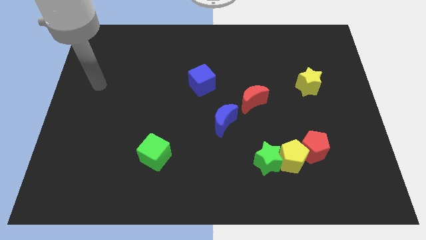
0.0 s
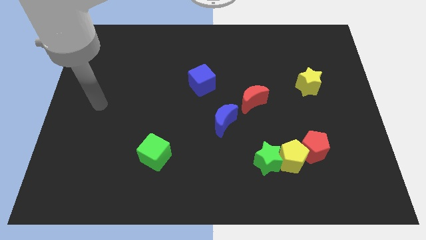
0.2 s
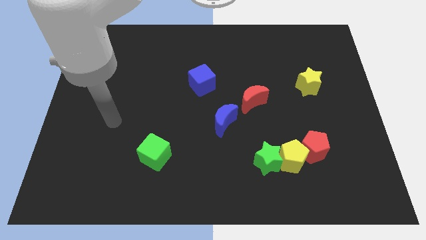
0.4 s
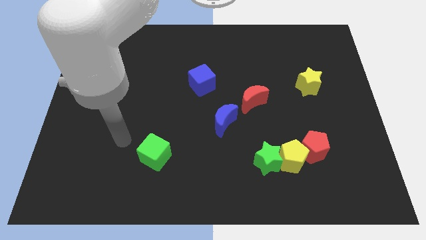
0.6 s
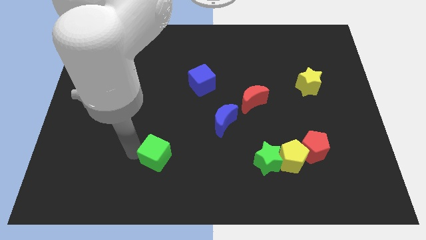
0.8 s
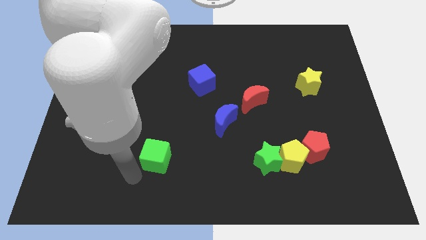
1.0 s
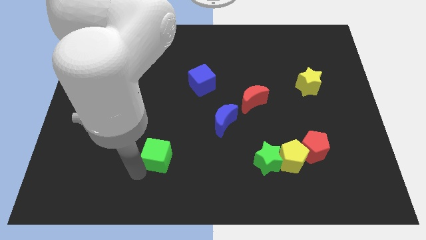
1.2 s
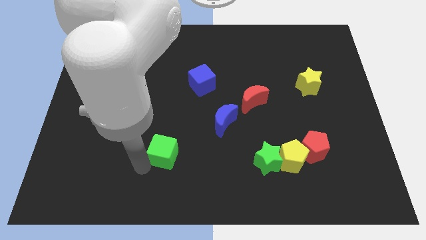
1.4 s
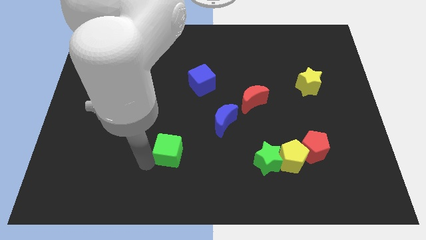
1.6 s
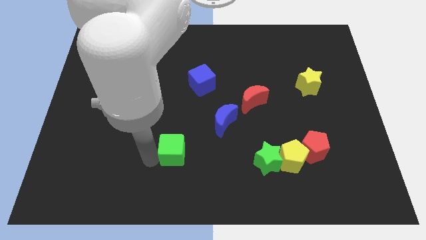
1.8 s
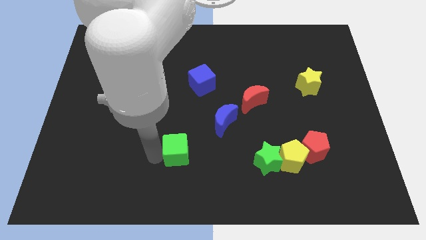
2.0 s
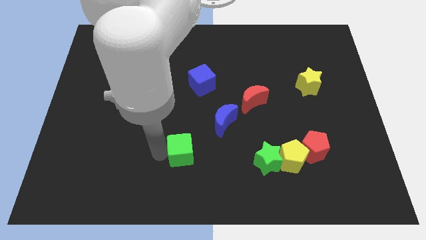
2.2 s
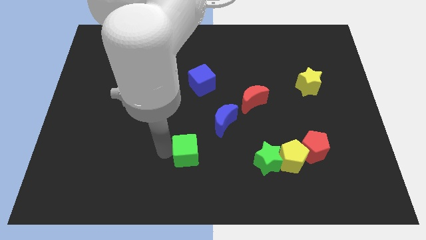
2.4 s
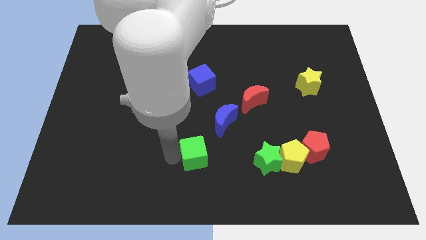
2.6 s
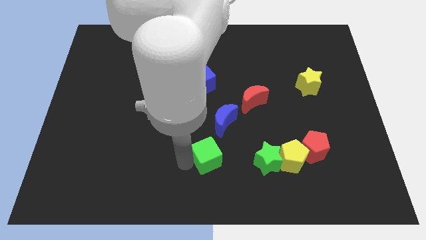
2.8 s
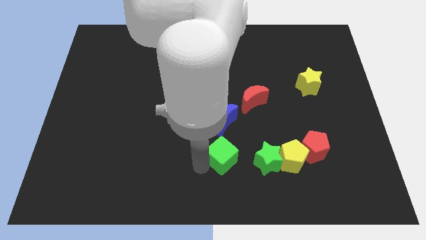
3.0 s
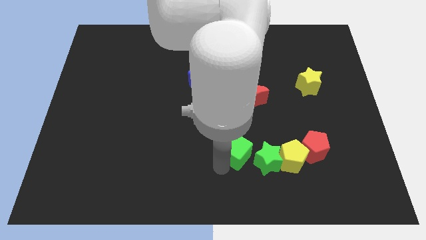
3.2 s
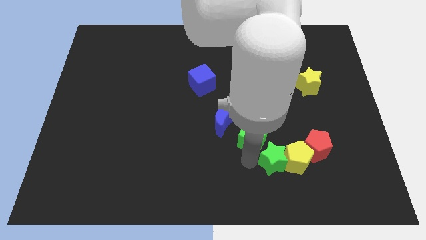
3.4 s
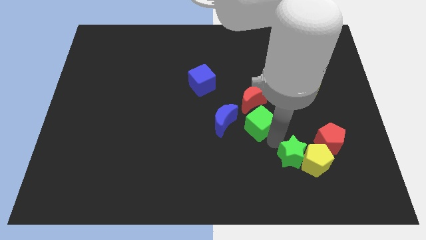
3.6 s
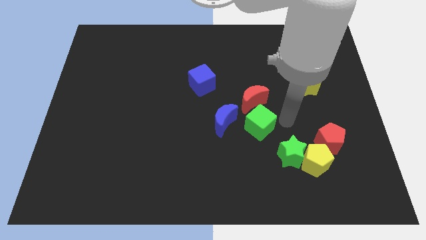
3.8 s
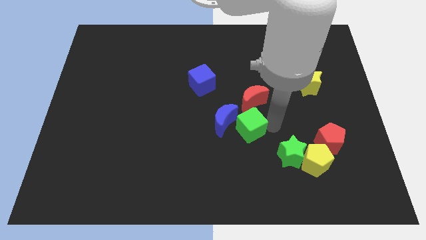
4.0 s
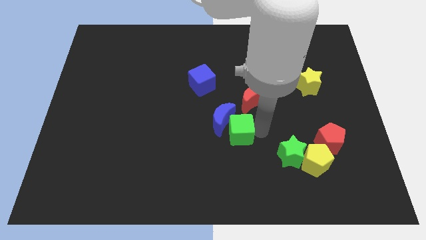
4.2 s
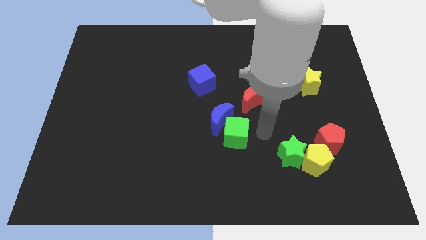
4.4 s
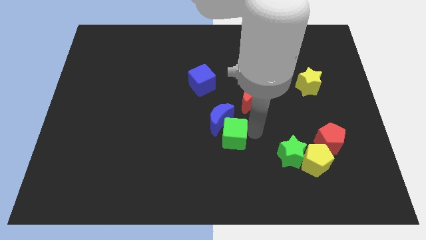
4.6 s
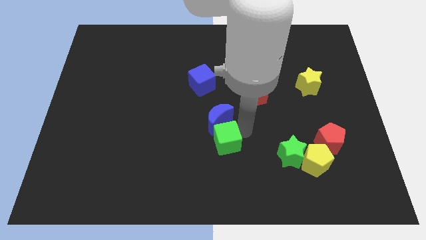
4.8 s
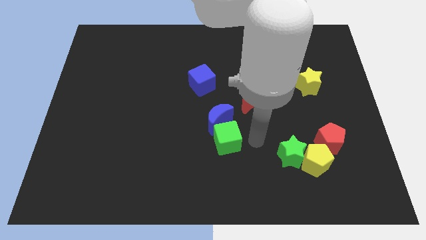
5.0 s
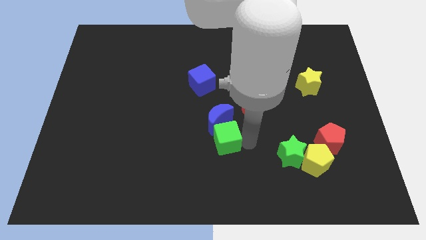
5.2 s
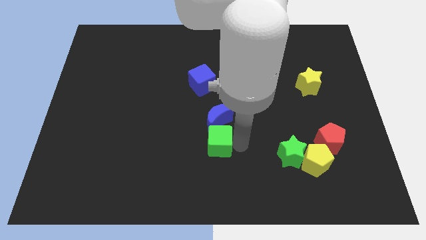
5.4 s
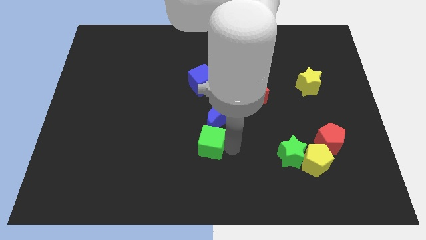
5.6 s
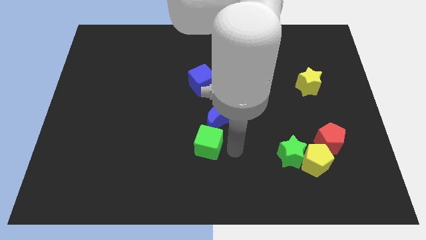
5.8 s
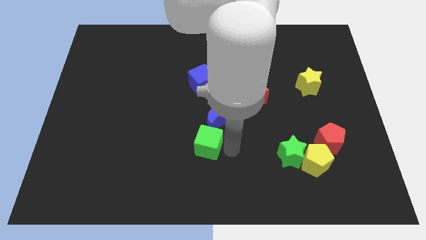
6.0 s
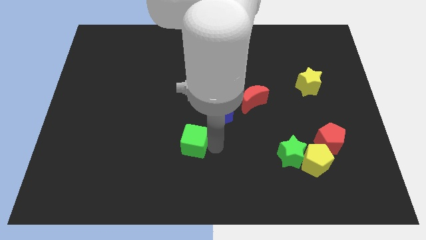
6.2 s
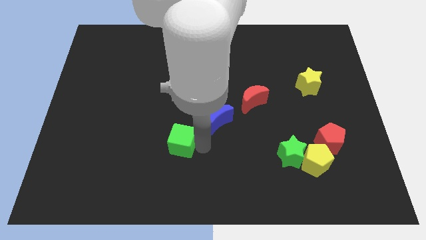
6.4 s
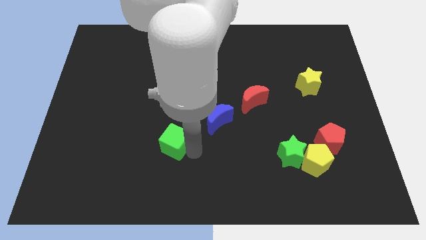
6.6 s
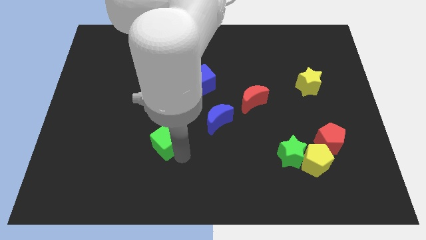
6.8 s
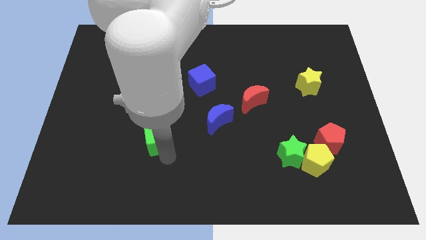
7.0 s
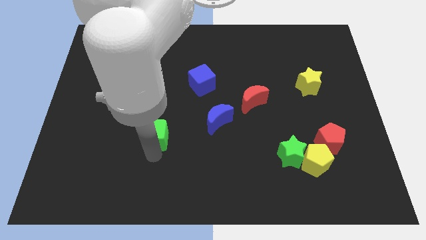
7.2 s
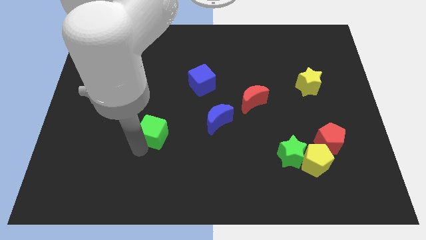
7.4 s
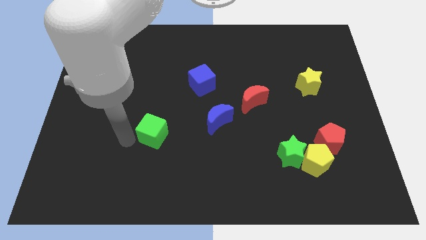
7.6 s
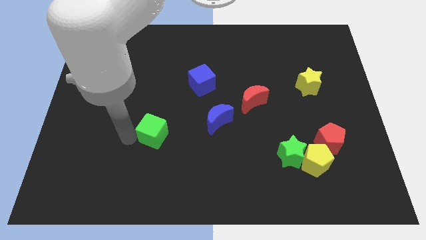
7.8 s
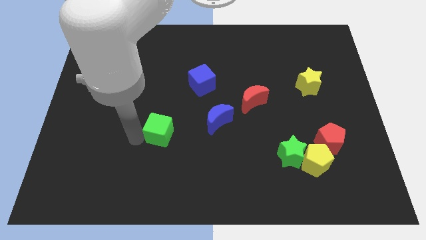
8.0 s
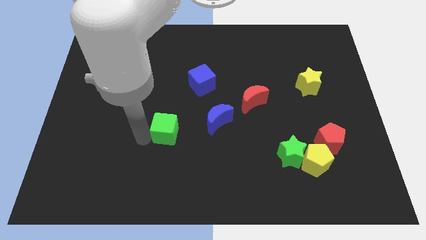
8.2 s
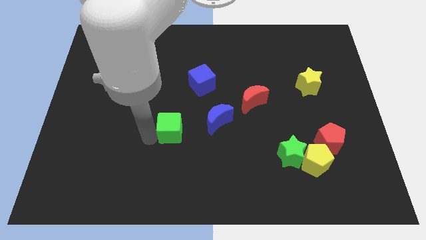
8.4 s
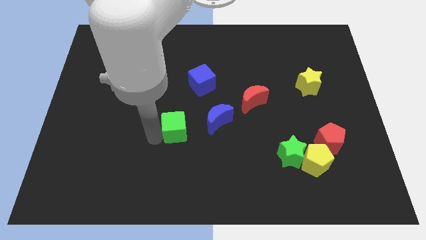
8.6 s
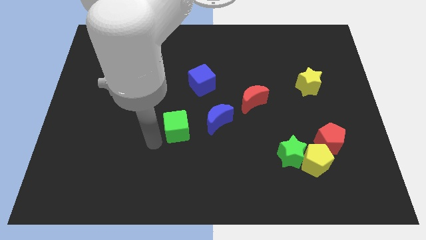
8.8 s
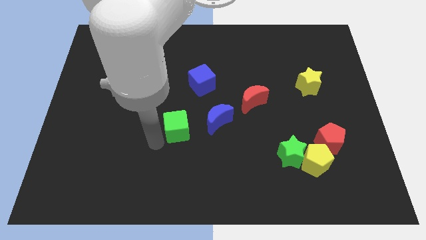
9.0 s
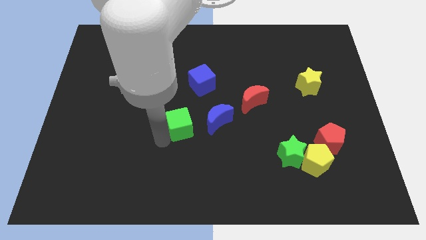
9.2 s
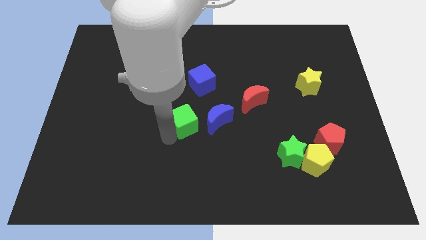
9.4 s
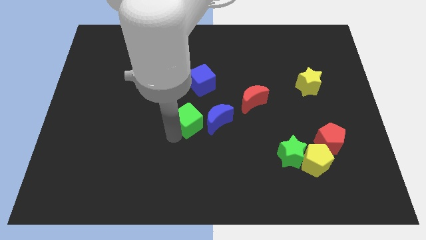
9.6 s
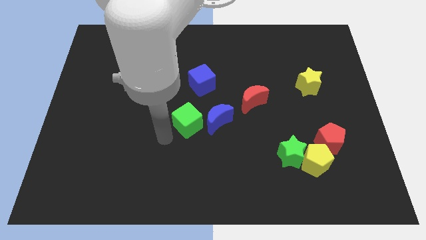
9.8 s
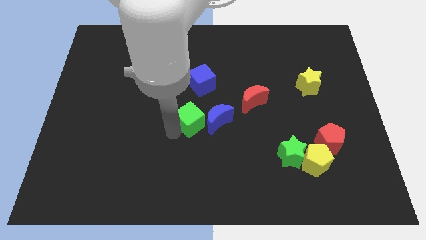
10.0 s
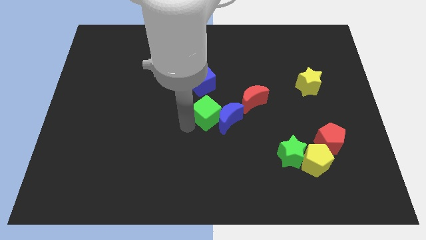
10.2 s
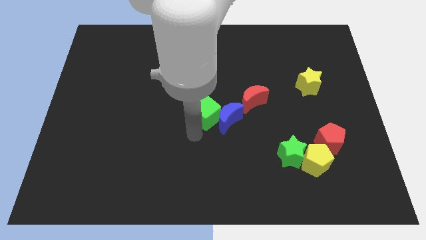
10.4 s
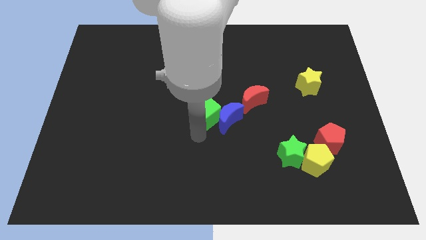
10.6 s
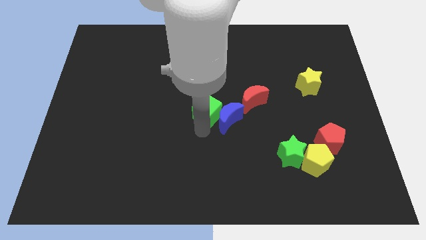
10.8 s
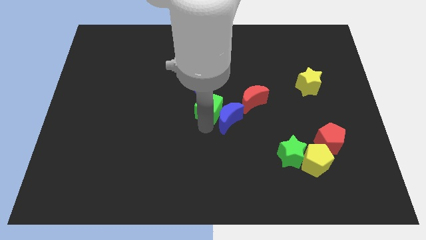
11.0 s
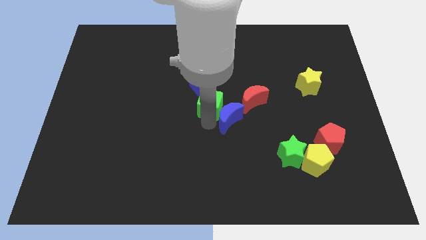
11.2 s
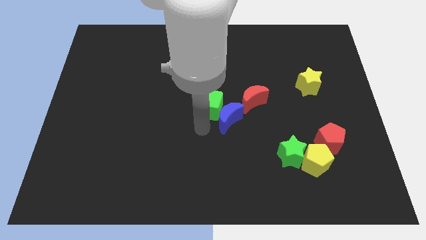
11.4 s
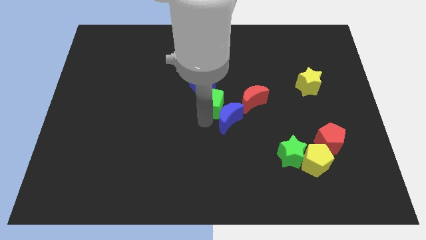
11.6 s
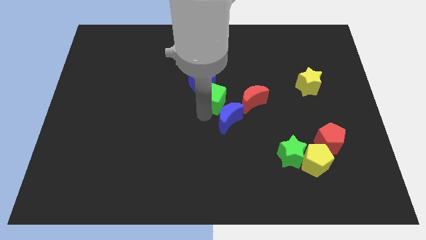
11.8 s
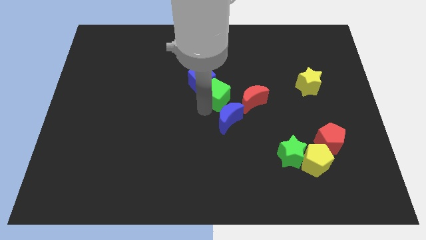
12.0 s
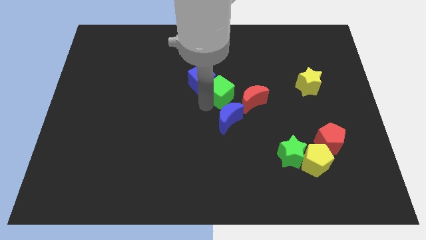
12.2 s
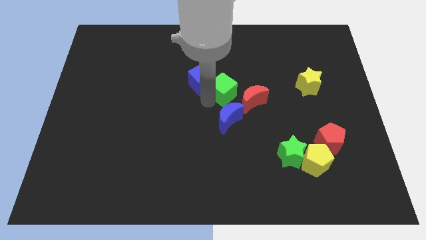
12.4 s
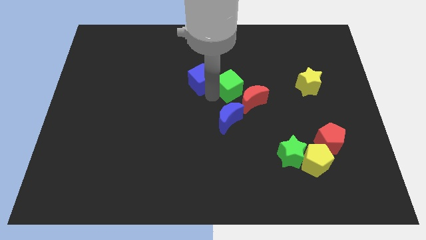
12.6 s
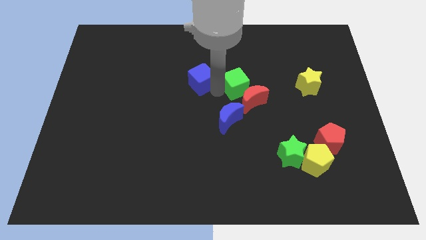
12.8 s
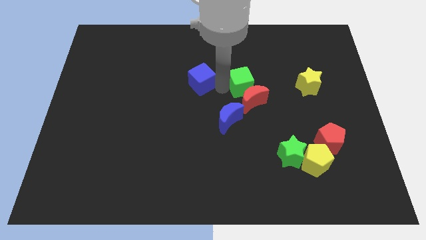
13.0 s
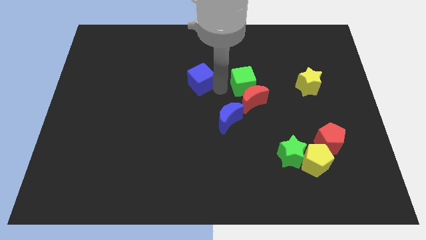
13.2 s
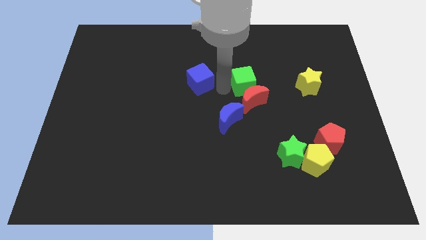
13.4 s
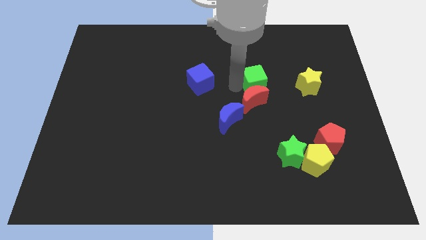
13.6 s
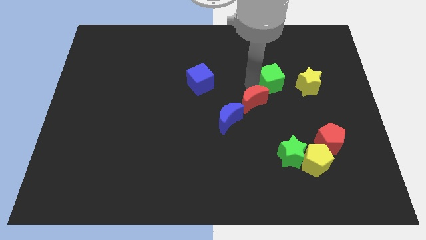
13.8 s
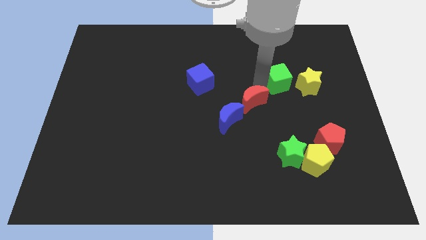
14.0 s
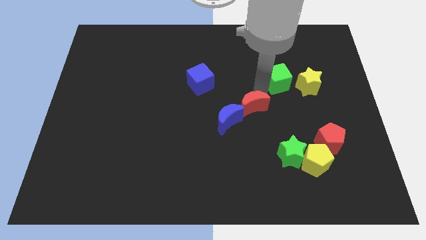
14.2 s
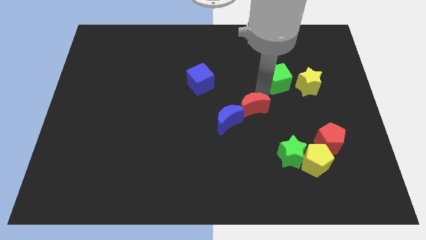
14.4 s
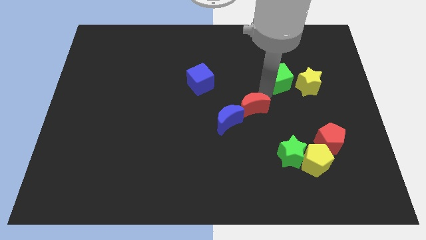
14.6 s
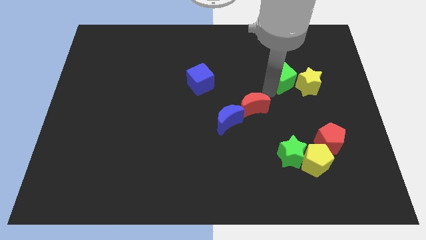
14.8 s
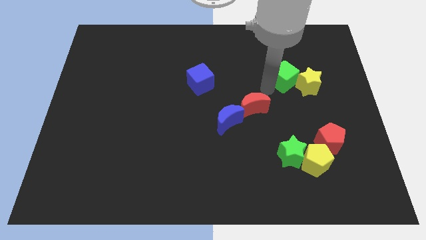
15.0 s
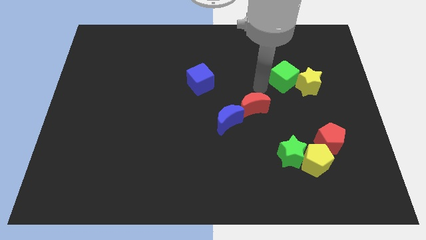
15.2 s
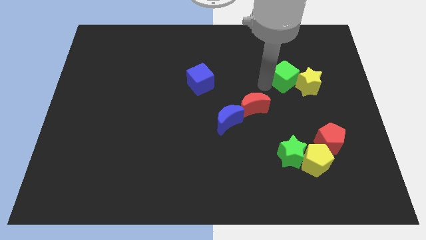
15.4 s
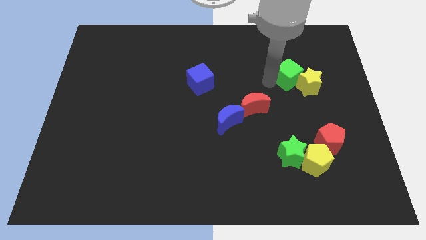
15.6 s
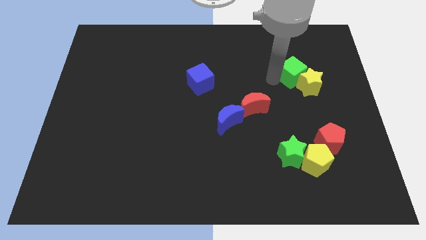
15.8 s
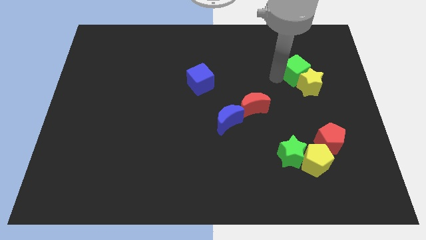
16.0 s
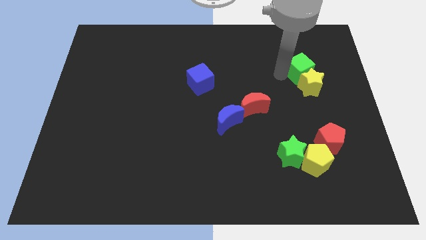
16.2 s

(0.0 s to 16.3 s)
slide the green cube to the top right side of the yellow star
